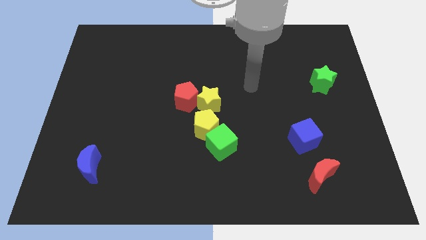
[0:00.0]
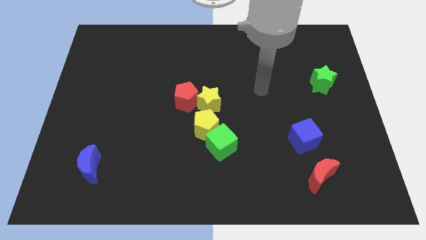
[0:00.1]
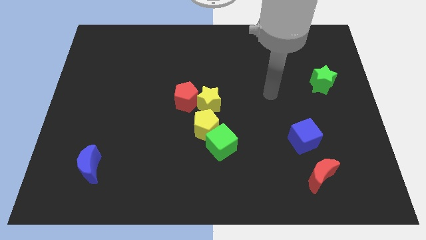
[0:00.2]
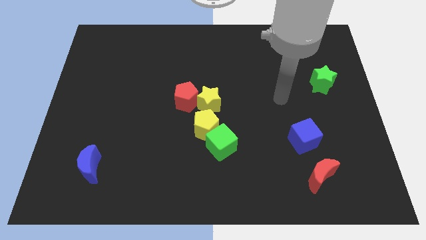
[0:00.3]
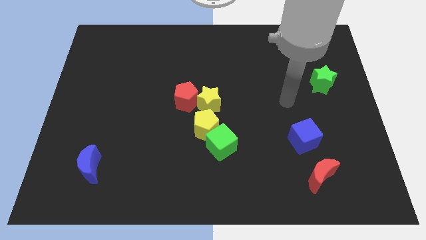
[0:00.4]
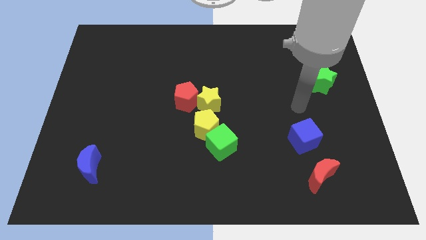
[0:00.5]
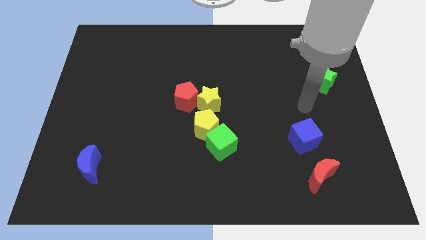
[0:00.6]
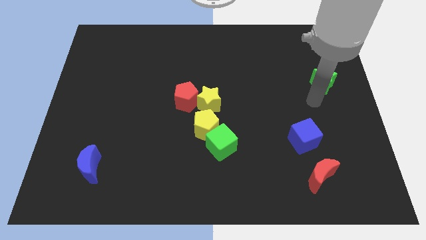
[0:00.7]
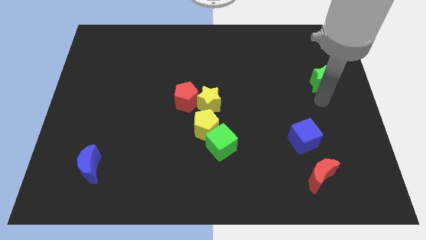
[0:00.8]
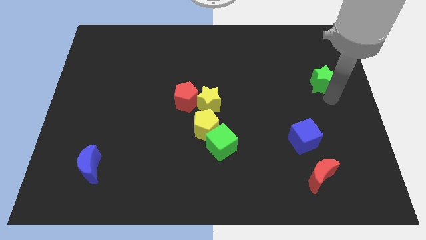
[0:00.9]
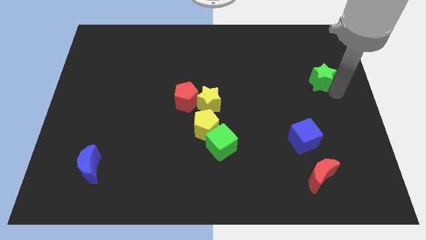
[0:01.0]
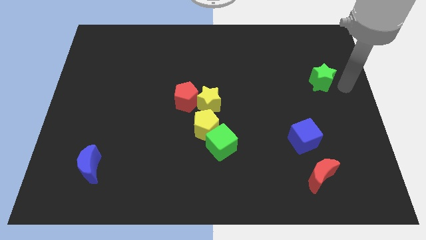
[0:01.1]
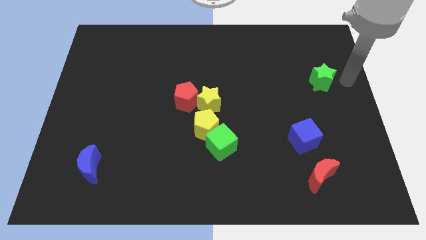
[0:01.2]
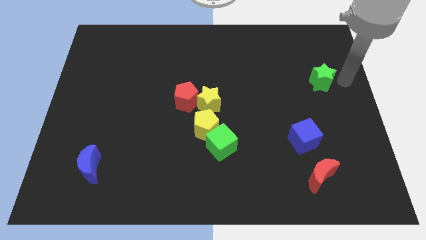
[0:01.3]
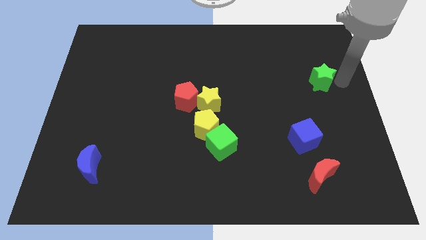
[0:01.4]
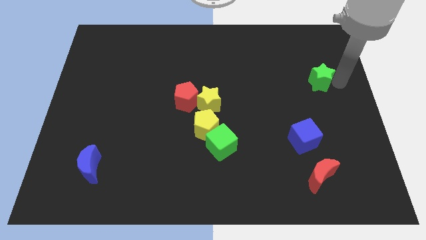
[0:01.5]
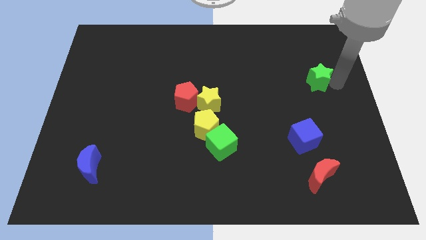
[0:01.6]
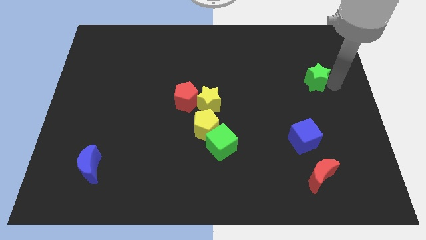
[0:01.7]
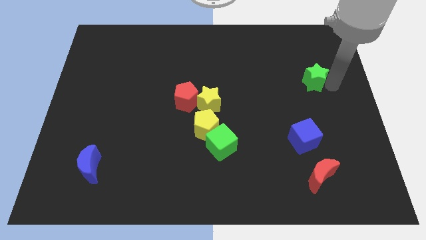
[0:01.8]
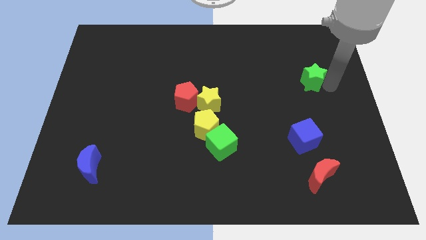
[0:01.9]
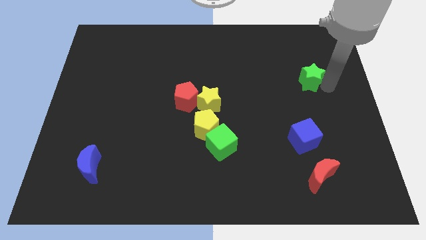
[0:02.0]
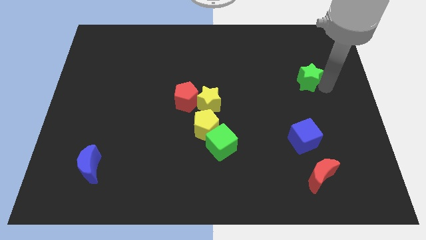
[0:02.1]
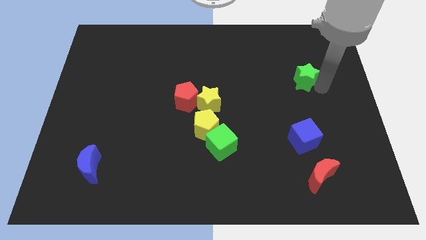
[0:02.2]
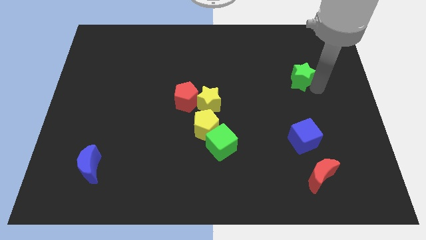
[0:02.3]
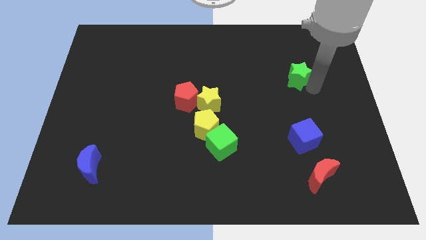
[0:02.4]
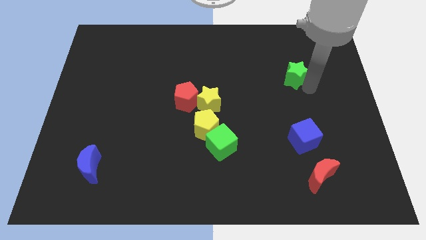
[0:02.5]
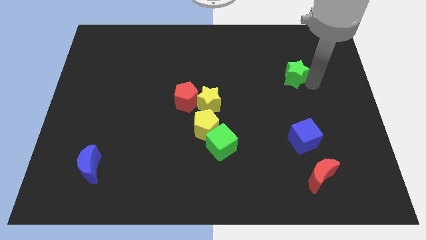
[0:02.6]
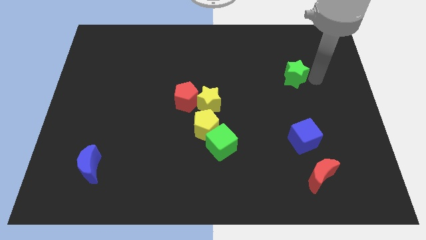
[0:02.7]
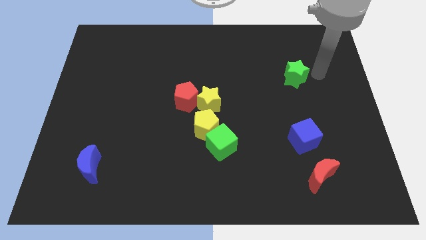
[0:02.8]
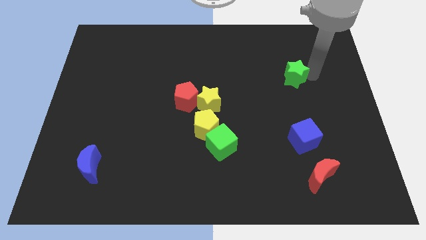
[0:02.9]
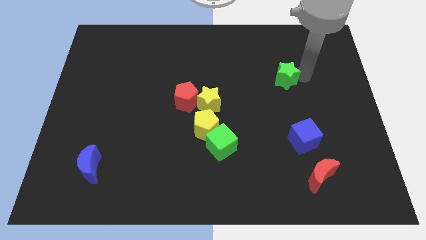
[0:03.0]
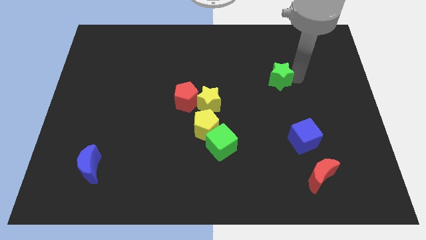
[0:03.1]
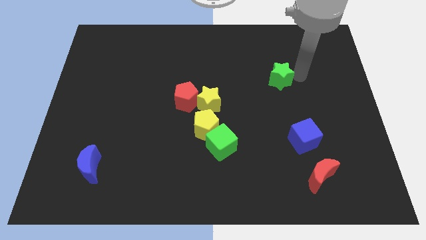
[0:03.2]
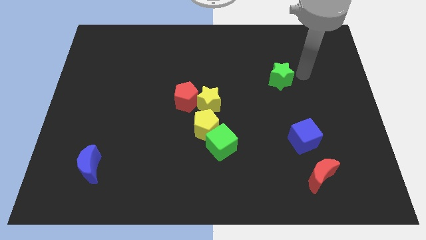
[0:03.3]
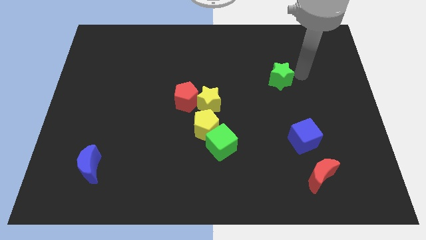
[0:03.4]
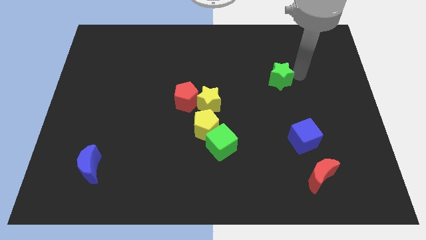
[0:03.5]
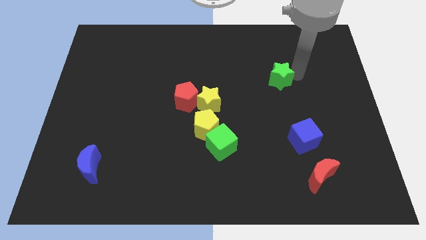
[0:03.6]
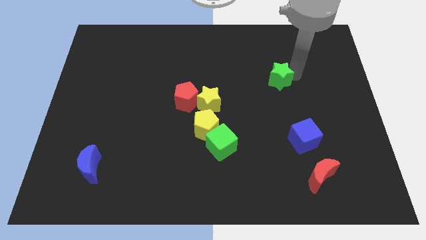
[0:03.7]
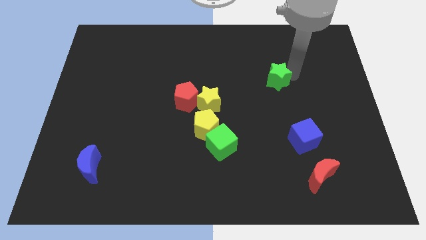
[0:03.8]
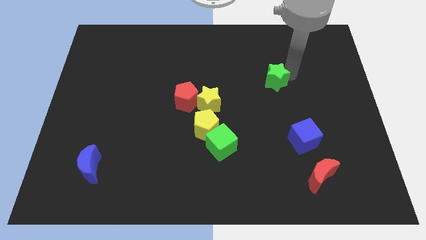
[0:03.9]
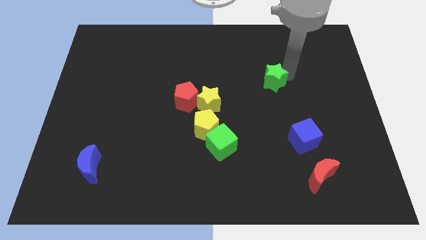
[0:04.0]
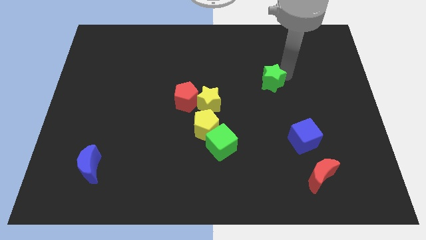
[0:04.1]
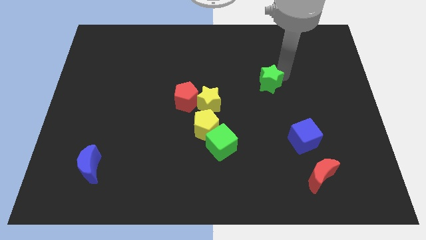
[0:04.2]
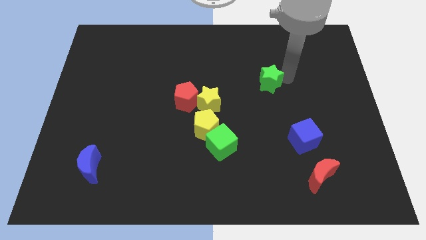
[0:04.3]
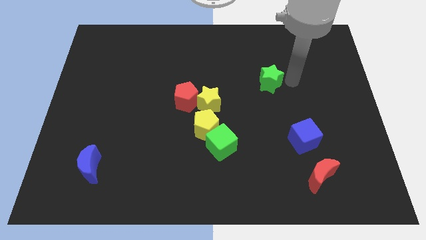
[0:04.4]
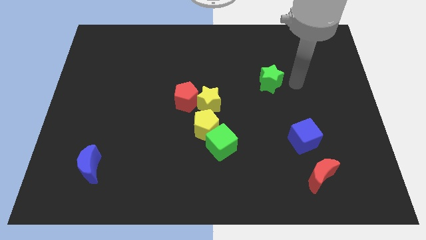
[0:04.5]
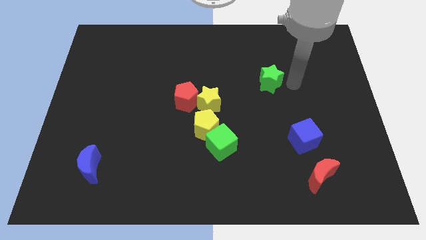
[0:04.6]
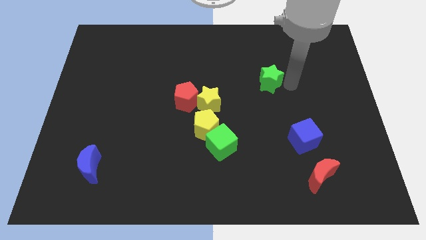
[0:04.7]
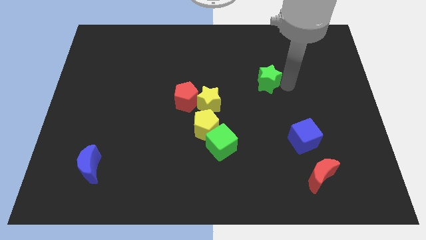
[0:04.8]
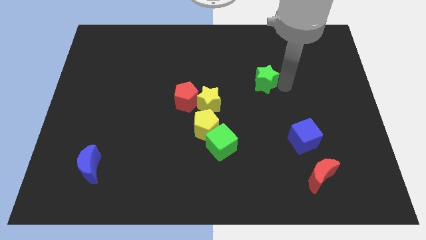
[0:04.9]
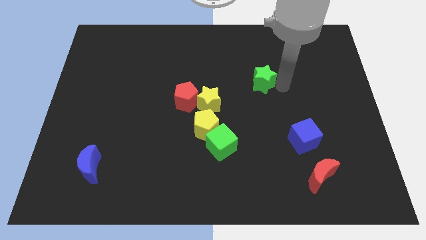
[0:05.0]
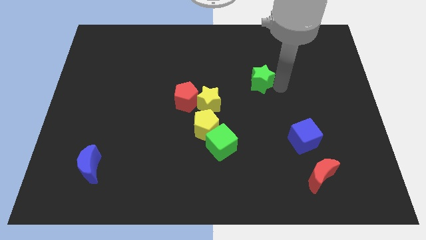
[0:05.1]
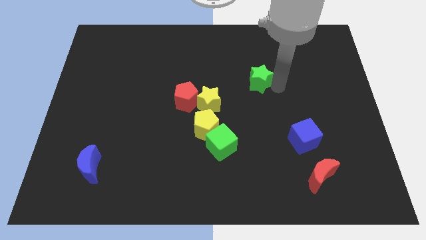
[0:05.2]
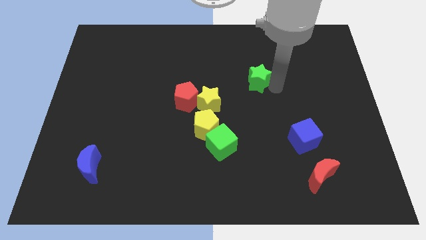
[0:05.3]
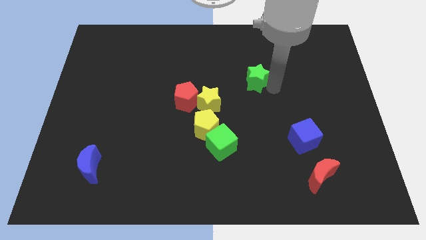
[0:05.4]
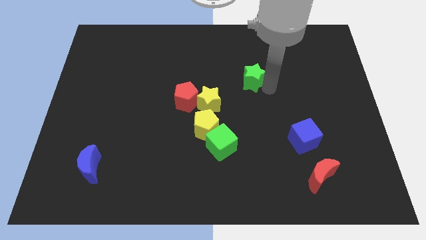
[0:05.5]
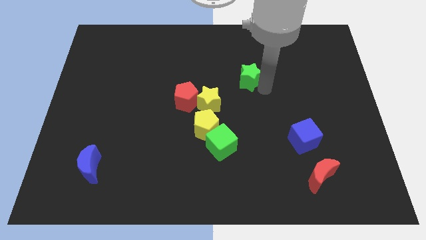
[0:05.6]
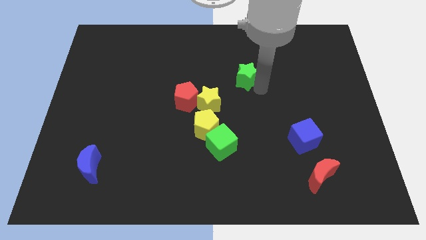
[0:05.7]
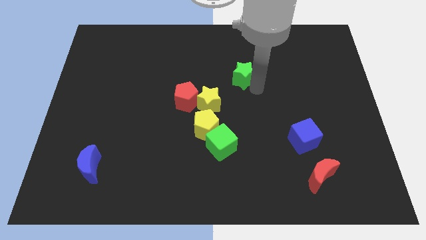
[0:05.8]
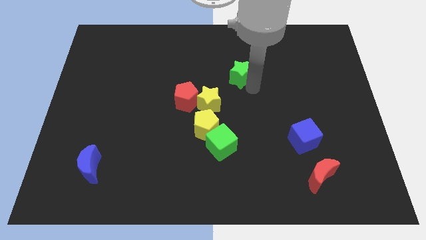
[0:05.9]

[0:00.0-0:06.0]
move the green star to the left

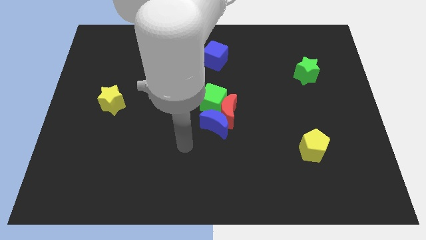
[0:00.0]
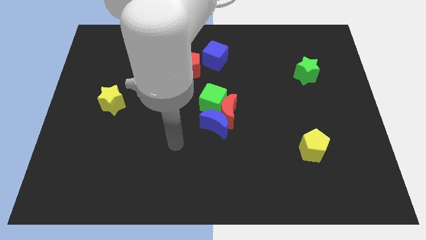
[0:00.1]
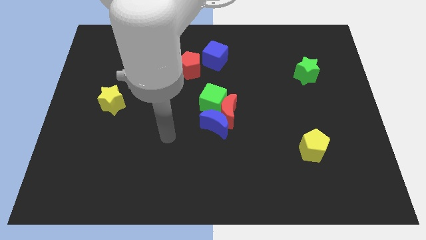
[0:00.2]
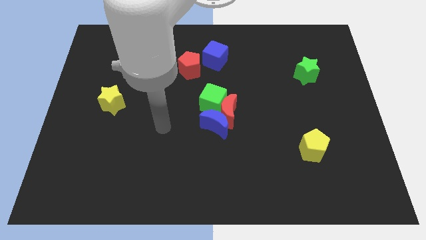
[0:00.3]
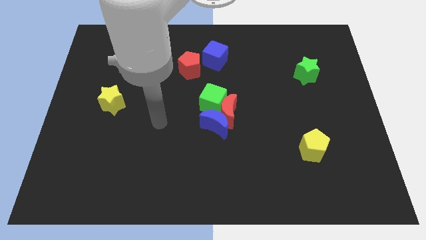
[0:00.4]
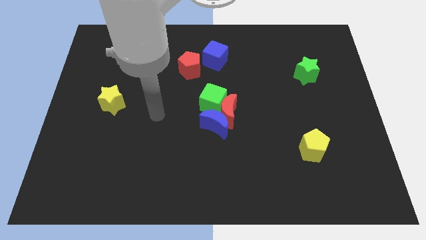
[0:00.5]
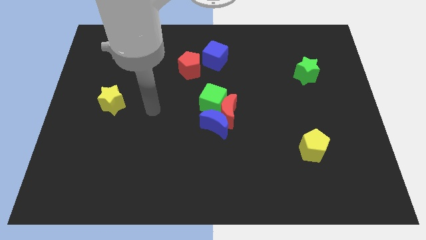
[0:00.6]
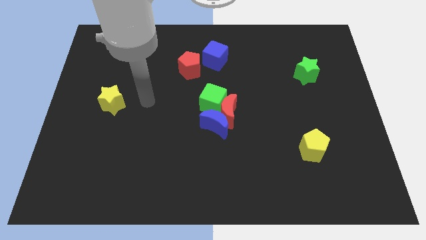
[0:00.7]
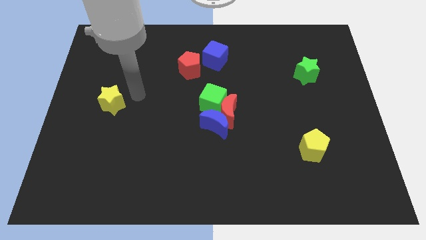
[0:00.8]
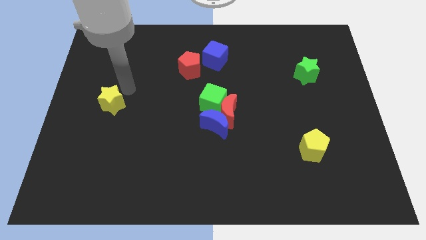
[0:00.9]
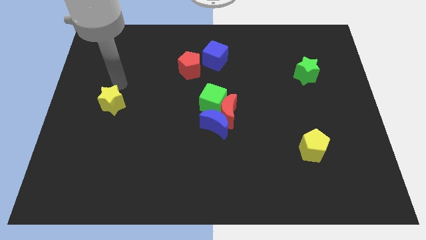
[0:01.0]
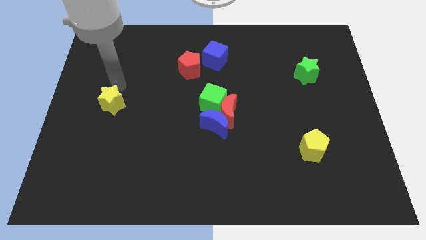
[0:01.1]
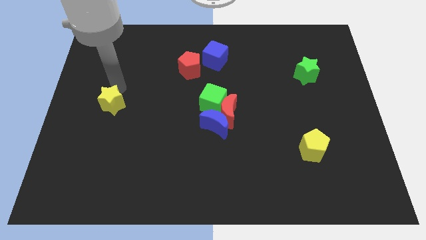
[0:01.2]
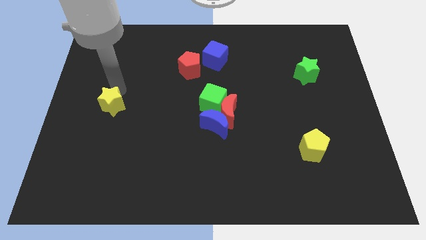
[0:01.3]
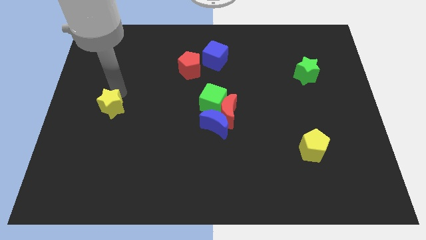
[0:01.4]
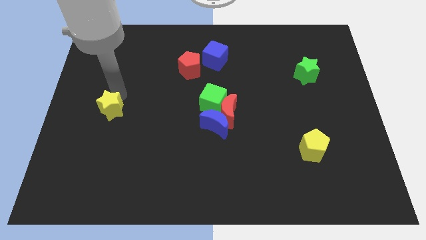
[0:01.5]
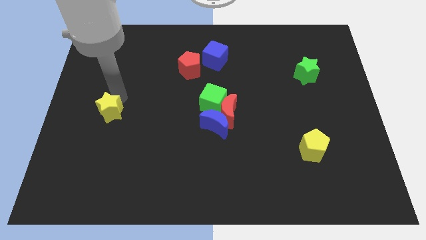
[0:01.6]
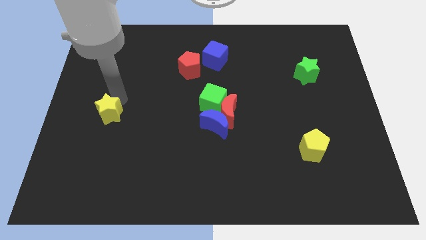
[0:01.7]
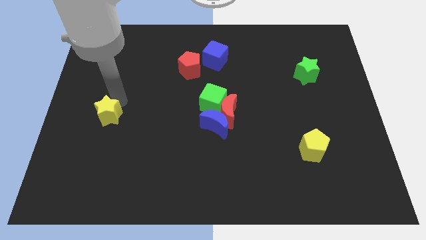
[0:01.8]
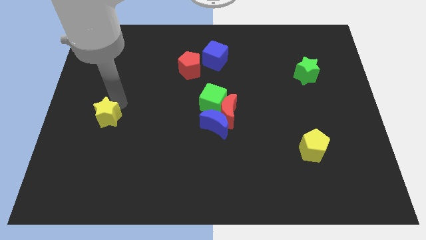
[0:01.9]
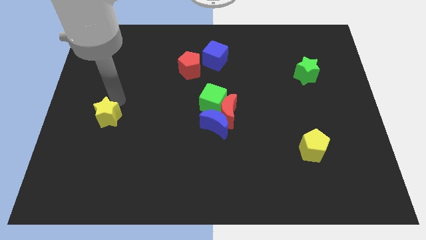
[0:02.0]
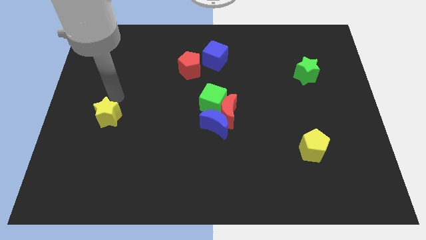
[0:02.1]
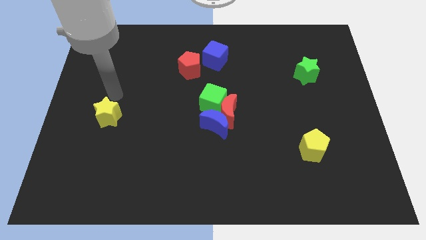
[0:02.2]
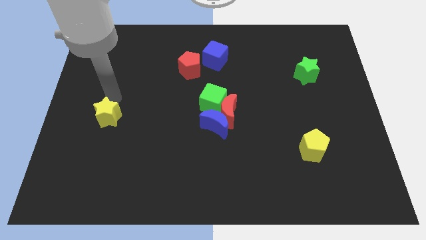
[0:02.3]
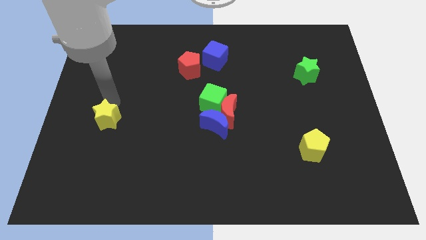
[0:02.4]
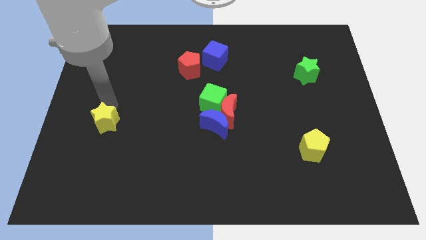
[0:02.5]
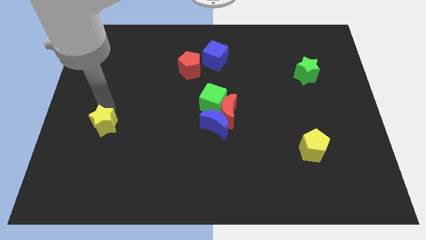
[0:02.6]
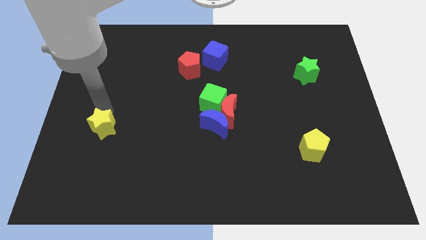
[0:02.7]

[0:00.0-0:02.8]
slide the yellow star a little bit down
